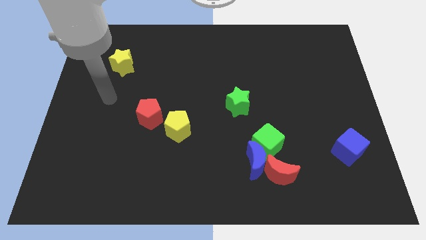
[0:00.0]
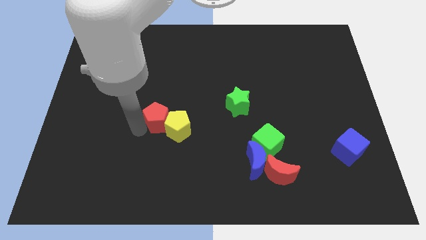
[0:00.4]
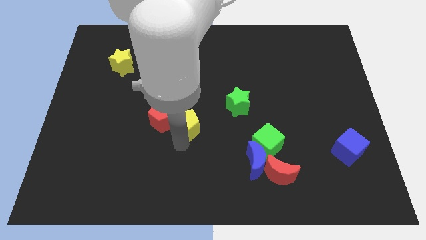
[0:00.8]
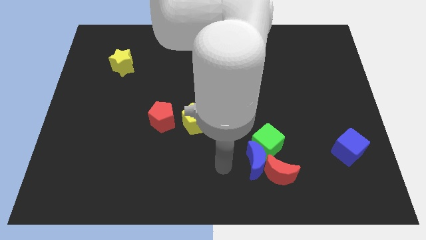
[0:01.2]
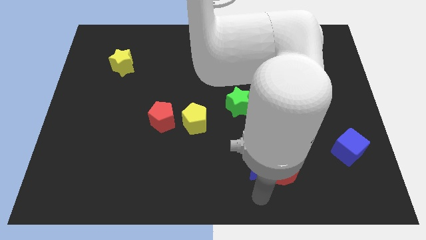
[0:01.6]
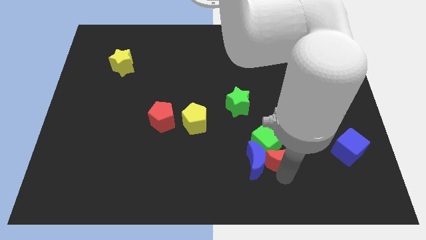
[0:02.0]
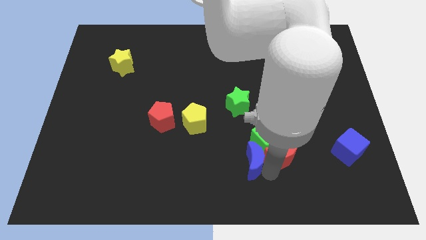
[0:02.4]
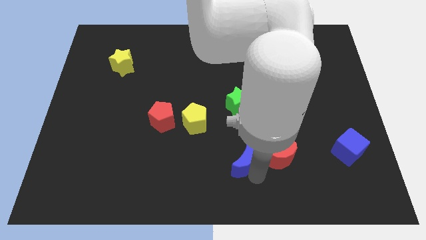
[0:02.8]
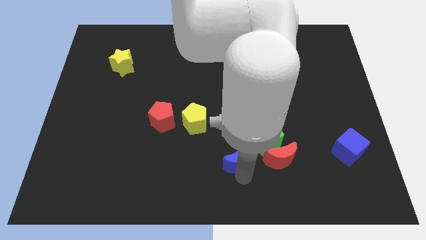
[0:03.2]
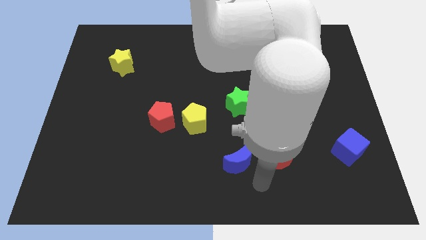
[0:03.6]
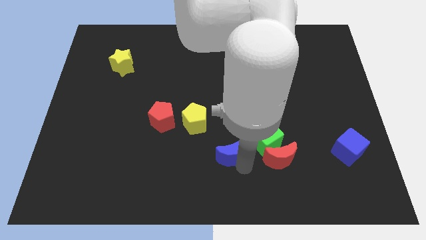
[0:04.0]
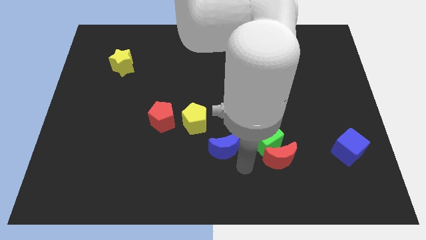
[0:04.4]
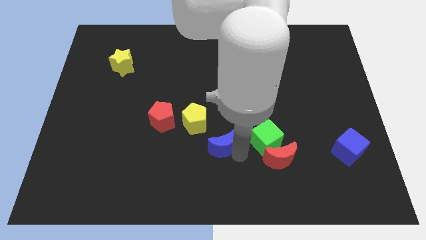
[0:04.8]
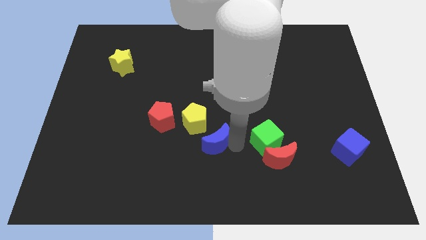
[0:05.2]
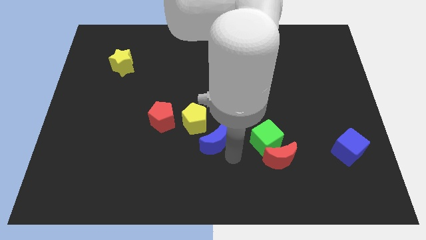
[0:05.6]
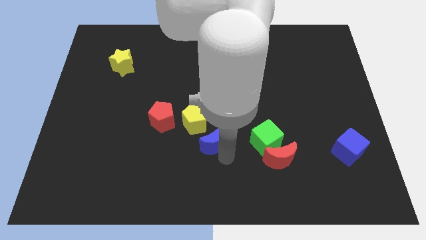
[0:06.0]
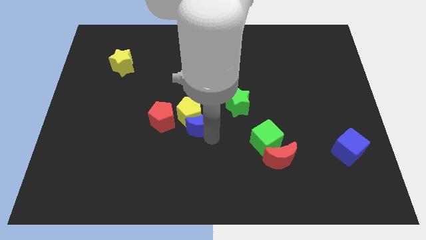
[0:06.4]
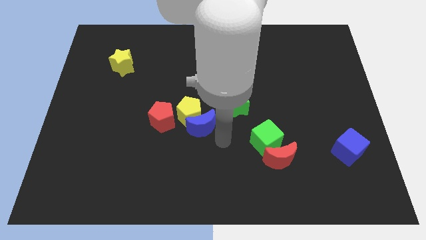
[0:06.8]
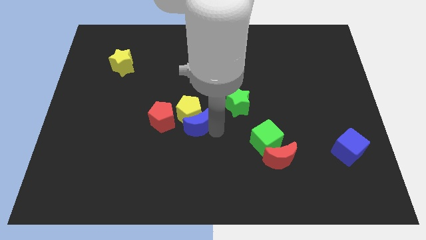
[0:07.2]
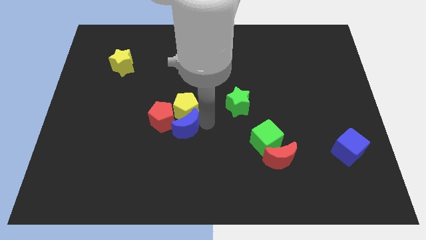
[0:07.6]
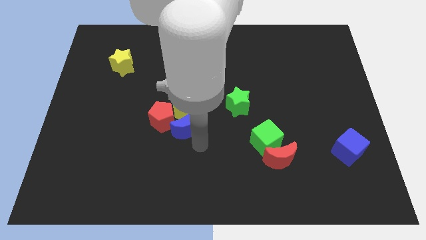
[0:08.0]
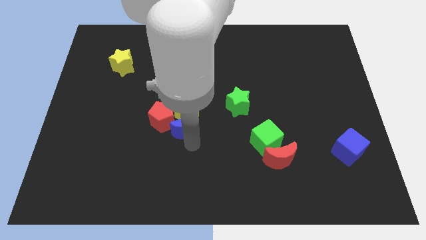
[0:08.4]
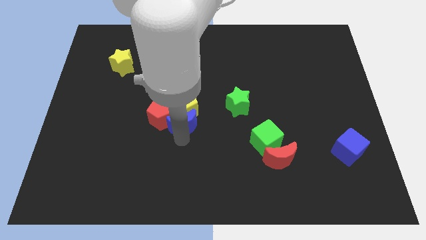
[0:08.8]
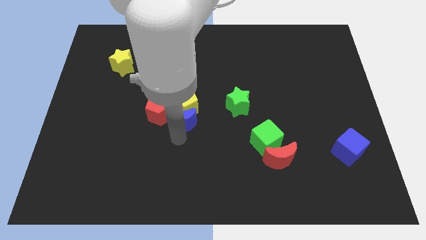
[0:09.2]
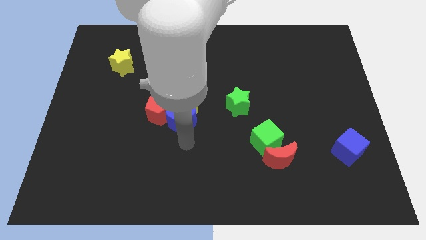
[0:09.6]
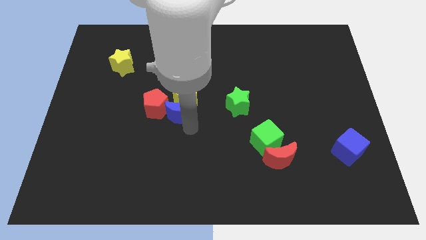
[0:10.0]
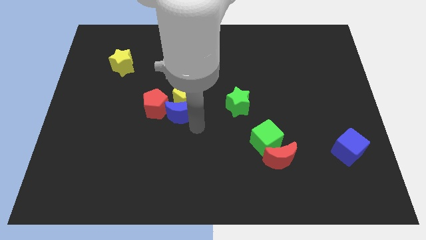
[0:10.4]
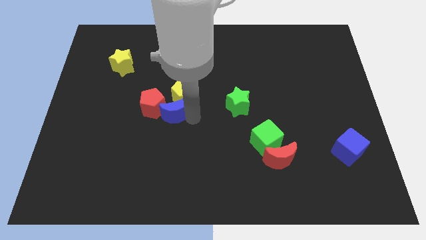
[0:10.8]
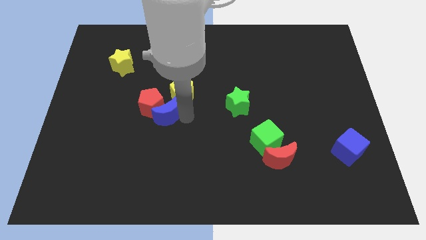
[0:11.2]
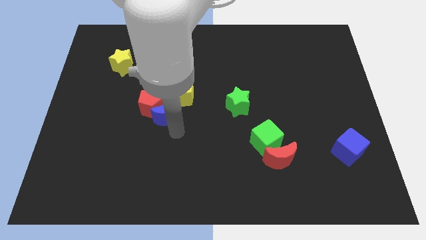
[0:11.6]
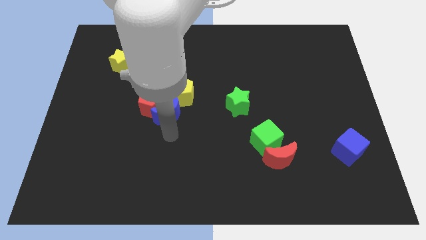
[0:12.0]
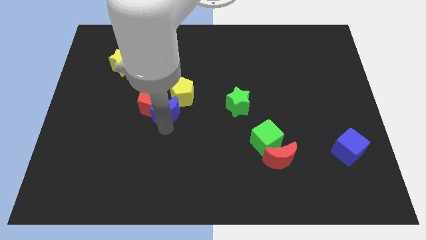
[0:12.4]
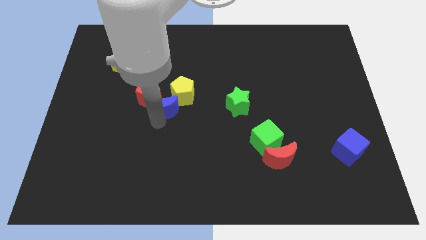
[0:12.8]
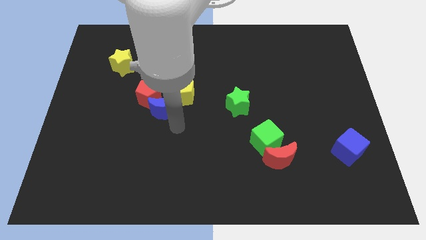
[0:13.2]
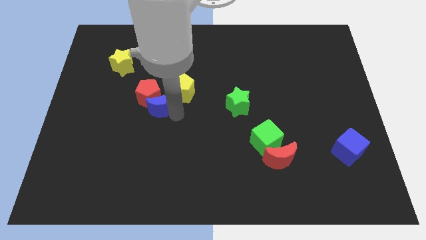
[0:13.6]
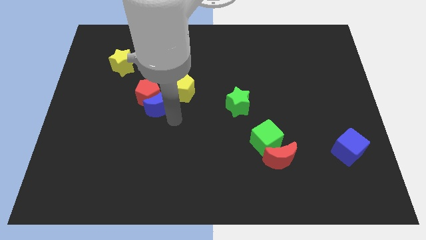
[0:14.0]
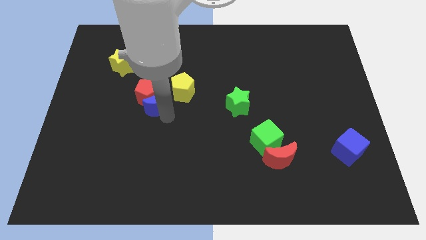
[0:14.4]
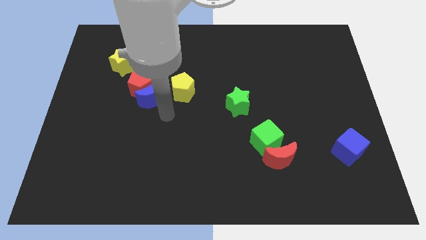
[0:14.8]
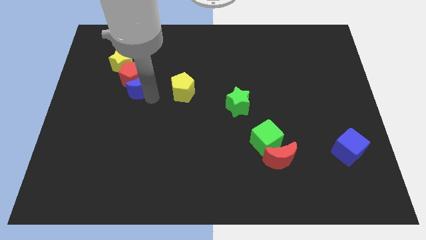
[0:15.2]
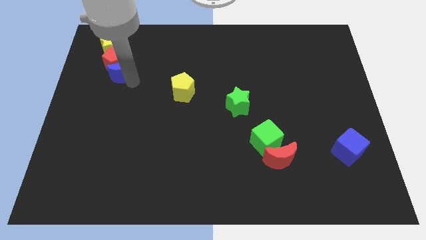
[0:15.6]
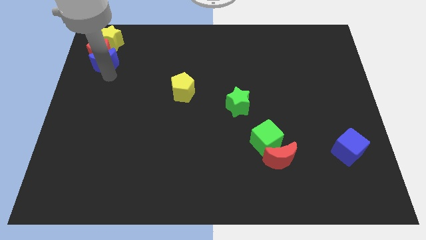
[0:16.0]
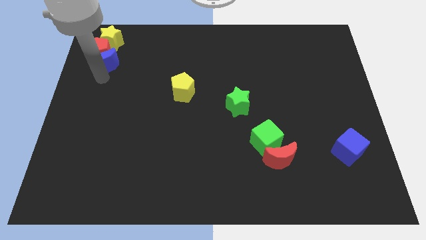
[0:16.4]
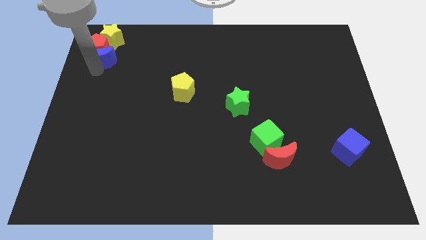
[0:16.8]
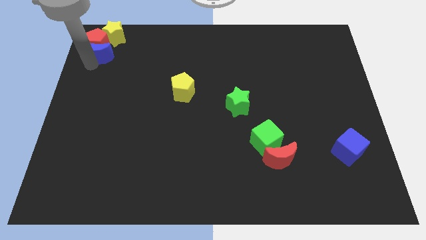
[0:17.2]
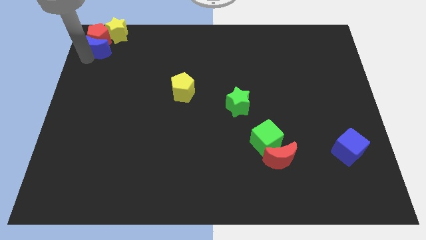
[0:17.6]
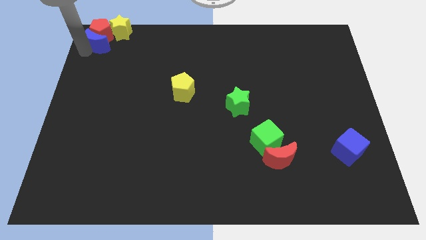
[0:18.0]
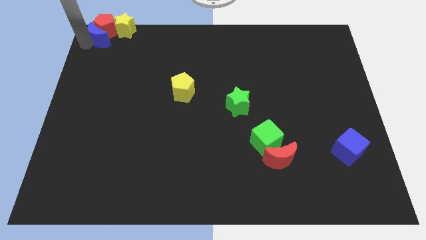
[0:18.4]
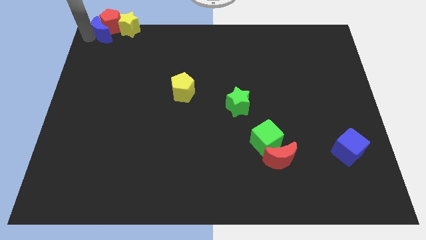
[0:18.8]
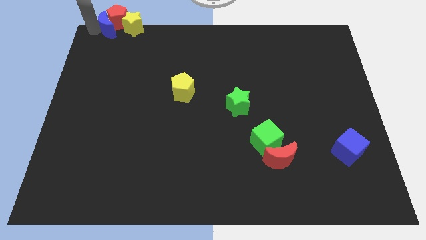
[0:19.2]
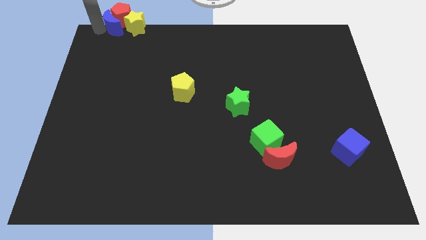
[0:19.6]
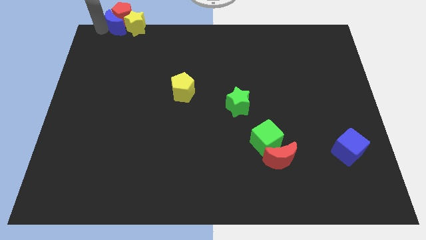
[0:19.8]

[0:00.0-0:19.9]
move the blue moon close to the yellow star

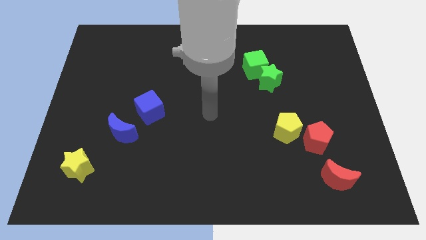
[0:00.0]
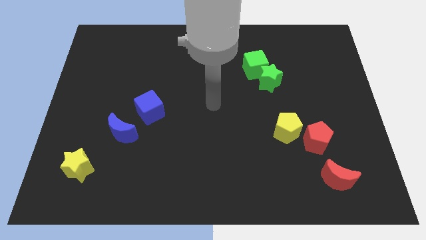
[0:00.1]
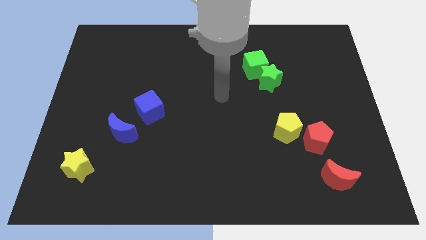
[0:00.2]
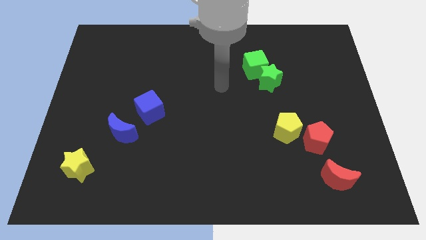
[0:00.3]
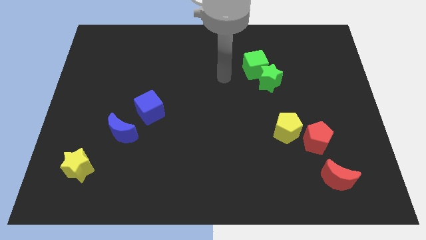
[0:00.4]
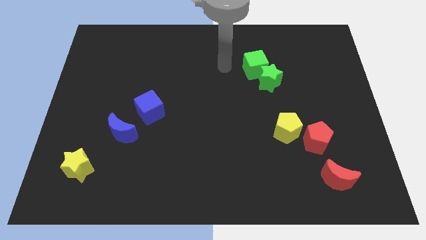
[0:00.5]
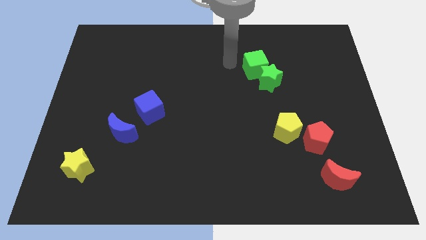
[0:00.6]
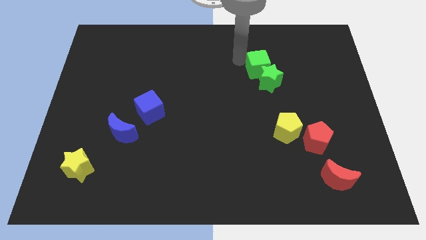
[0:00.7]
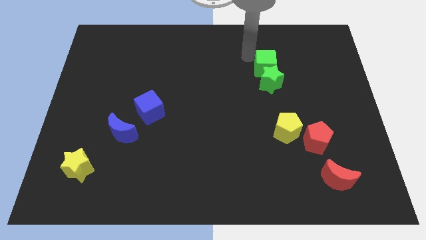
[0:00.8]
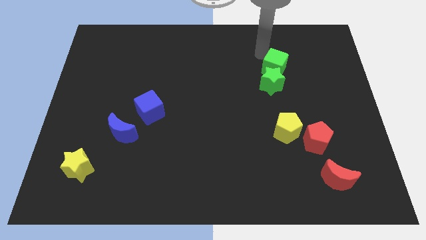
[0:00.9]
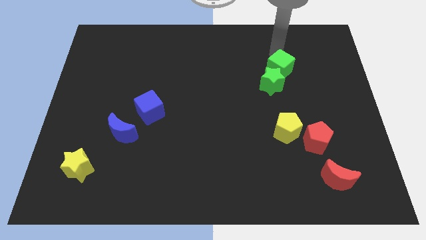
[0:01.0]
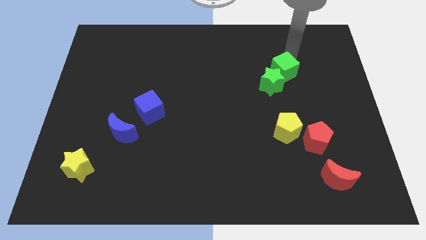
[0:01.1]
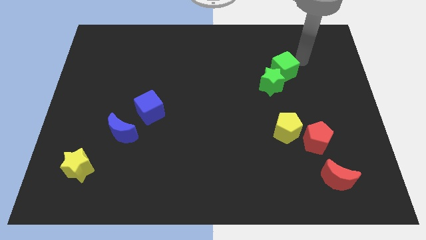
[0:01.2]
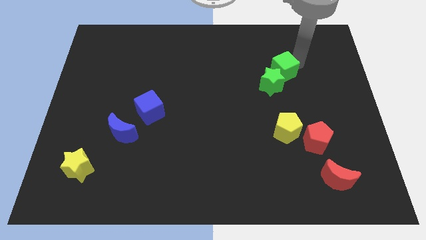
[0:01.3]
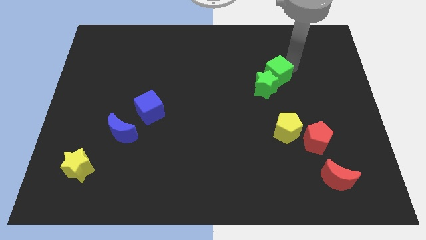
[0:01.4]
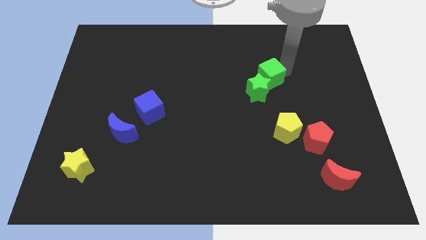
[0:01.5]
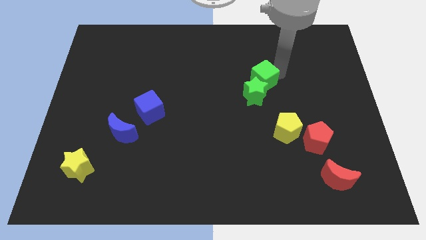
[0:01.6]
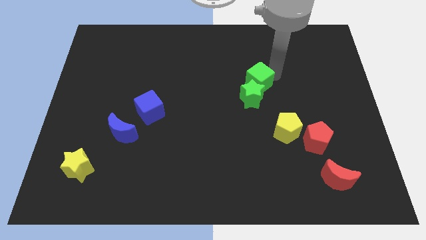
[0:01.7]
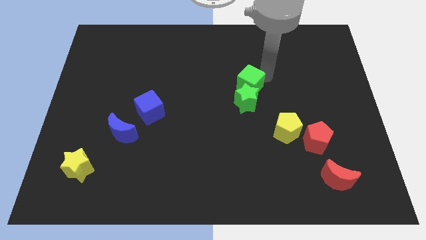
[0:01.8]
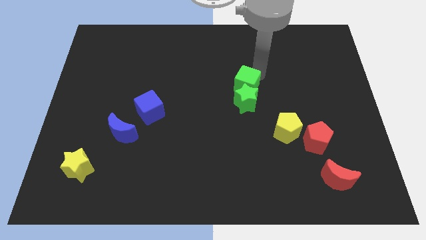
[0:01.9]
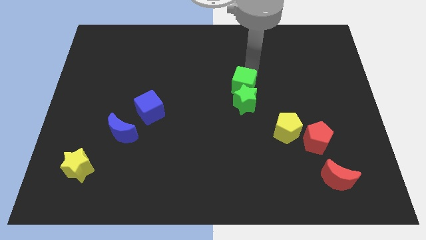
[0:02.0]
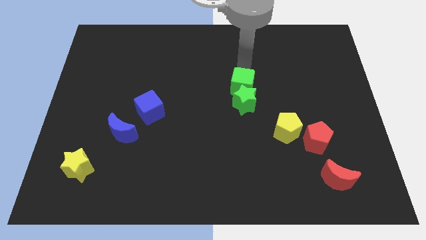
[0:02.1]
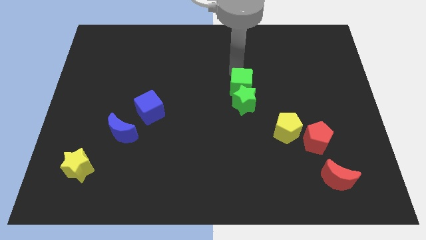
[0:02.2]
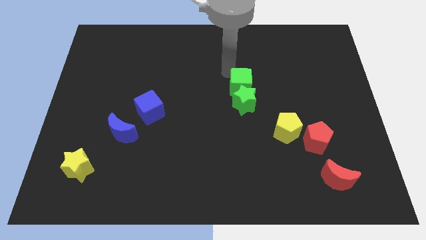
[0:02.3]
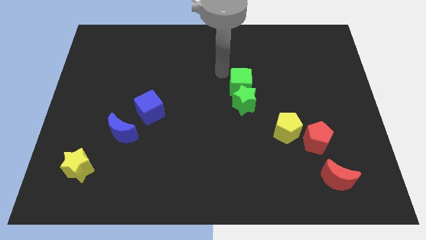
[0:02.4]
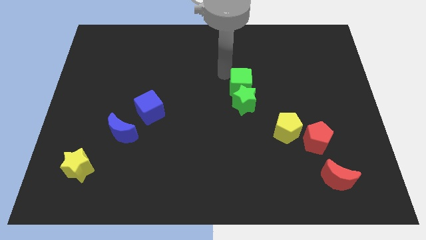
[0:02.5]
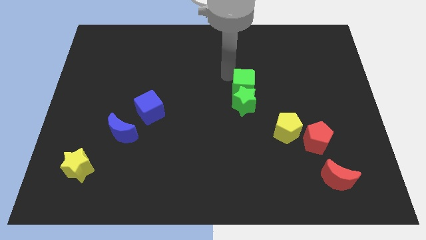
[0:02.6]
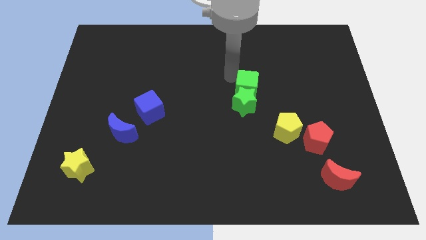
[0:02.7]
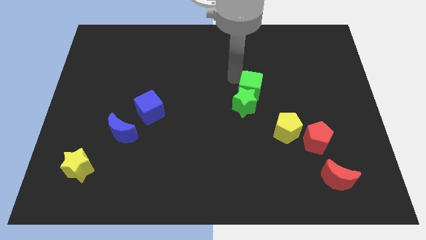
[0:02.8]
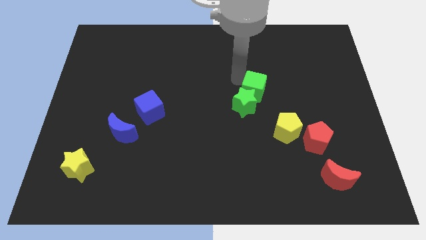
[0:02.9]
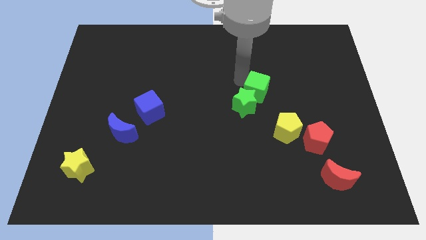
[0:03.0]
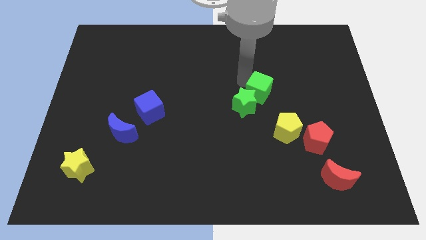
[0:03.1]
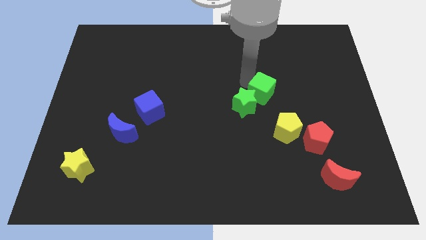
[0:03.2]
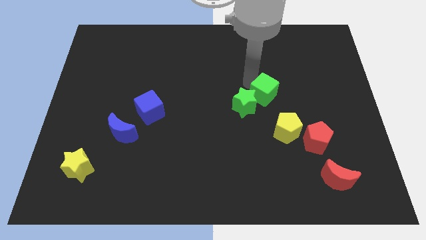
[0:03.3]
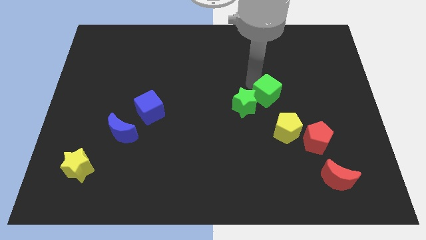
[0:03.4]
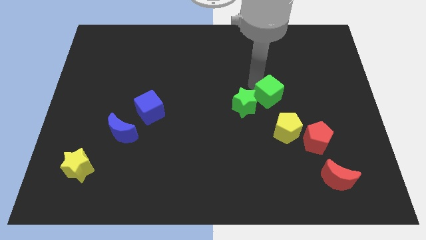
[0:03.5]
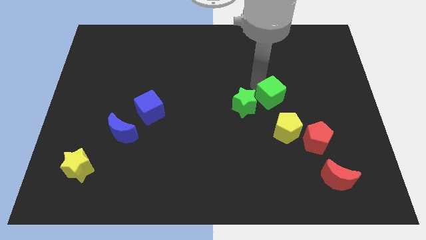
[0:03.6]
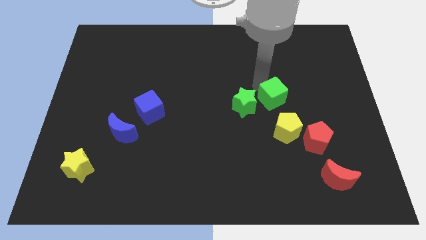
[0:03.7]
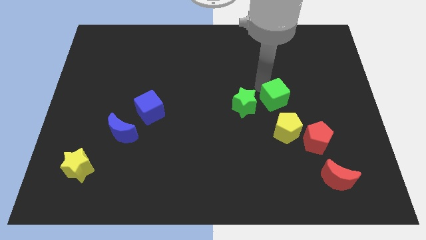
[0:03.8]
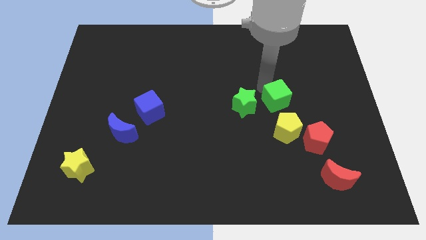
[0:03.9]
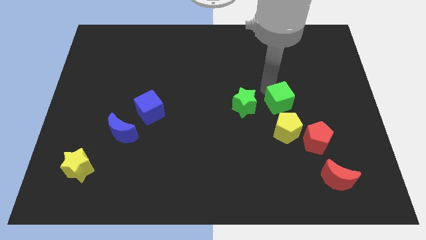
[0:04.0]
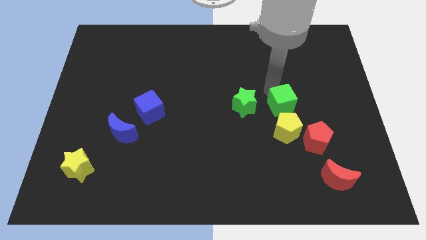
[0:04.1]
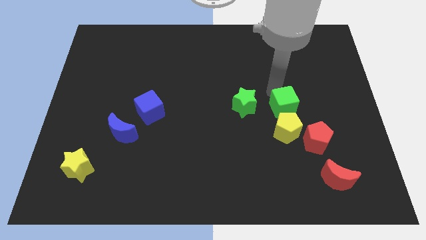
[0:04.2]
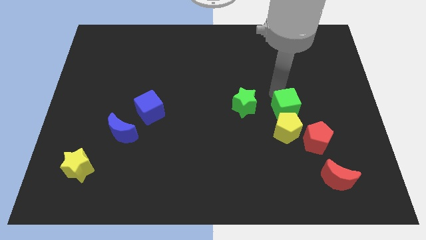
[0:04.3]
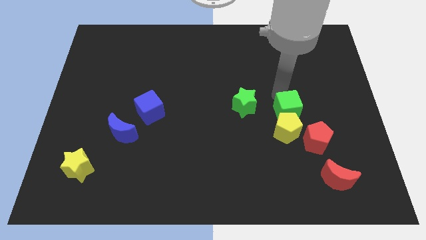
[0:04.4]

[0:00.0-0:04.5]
push the green cube next to the yellow pentagon
